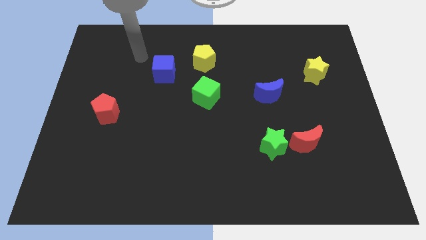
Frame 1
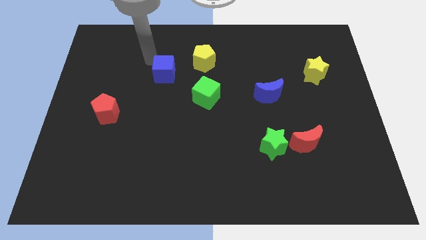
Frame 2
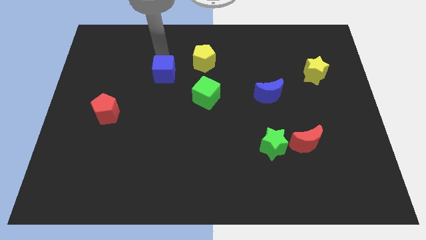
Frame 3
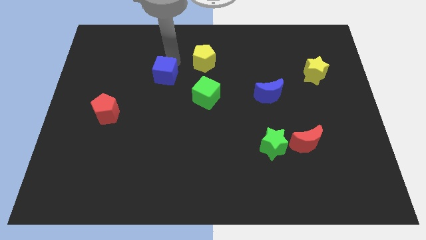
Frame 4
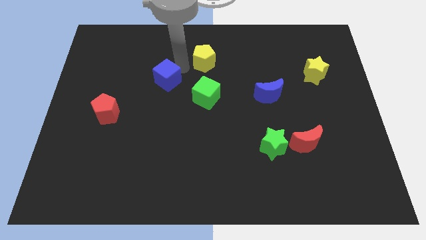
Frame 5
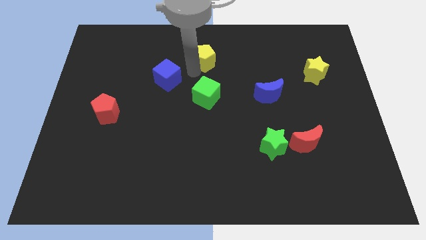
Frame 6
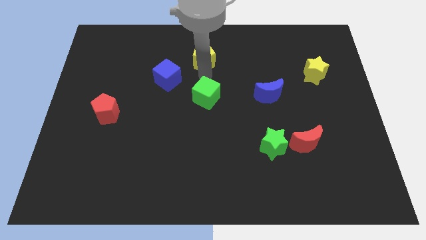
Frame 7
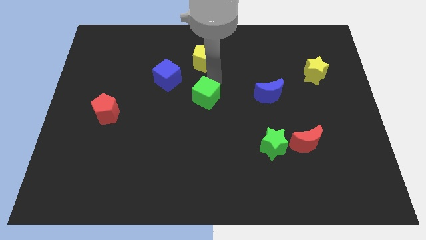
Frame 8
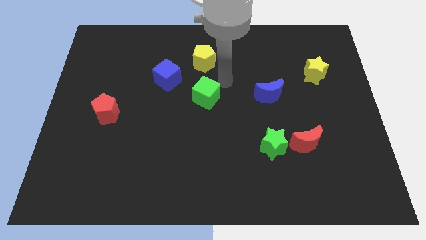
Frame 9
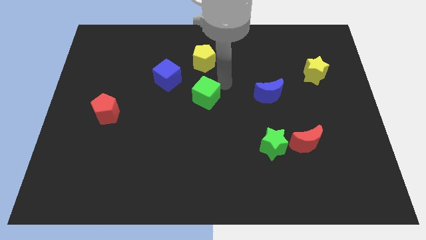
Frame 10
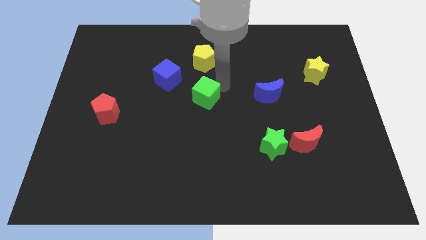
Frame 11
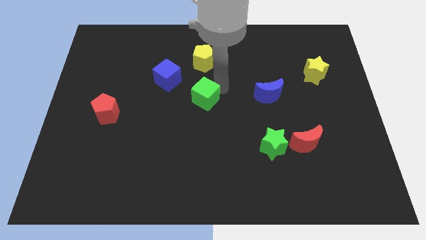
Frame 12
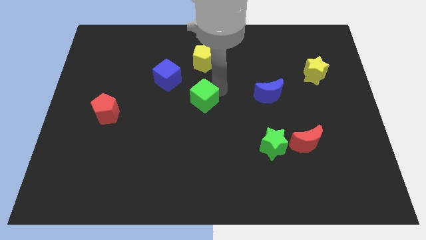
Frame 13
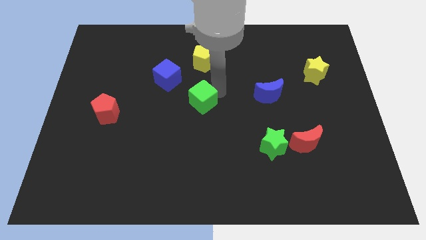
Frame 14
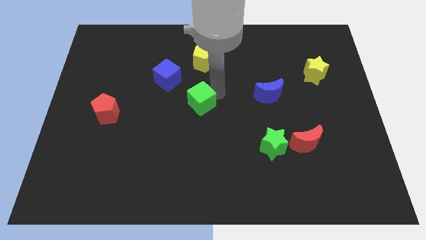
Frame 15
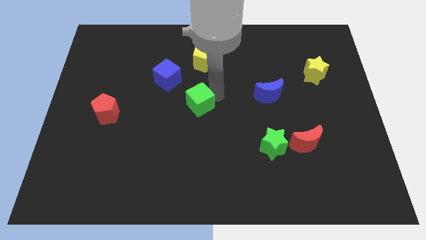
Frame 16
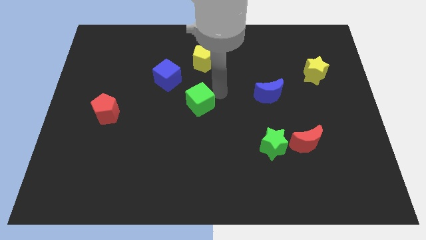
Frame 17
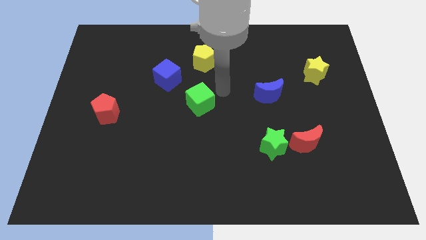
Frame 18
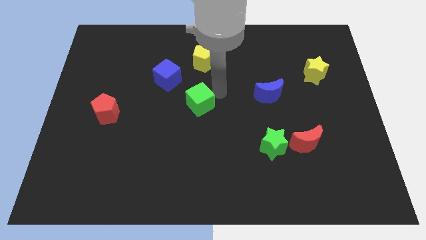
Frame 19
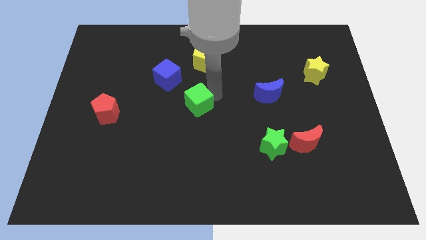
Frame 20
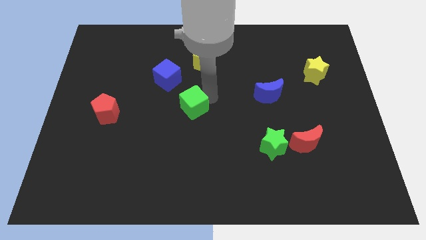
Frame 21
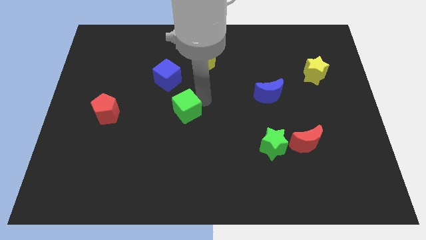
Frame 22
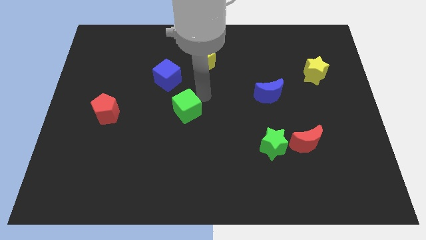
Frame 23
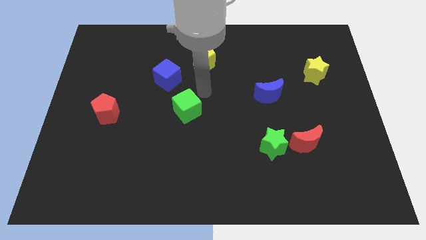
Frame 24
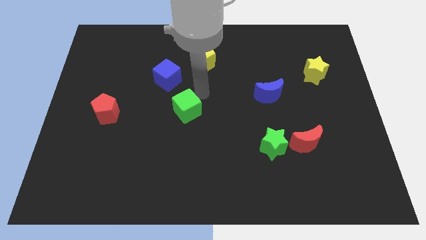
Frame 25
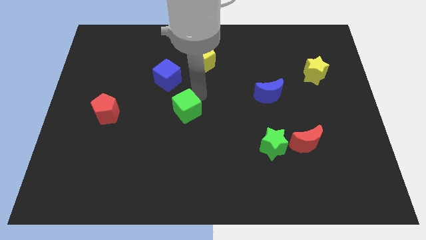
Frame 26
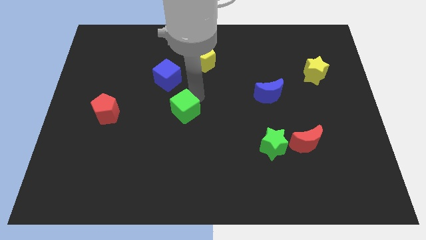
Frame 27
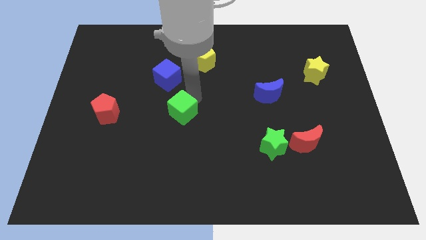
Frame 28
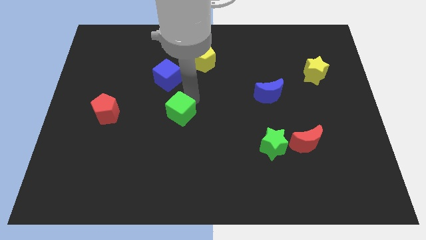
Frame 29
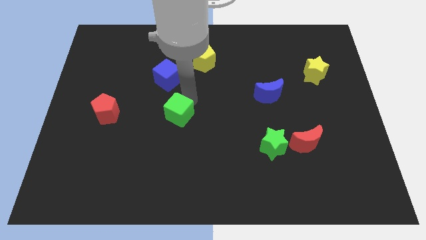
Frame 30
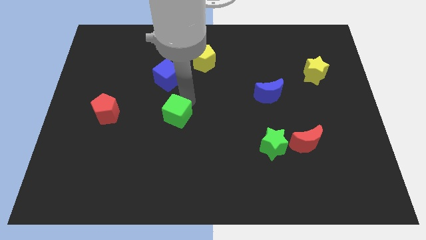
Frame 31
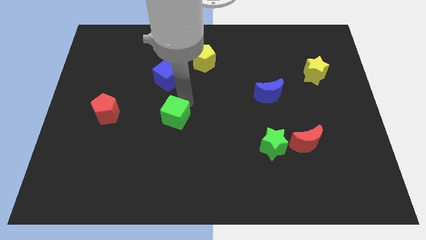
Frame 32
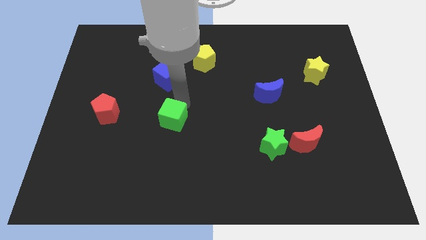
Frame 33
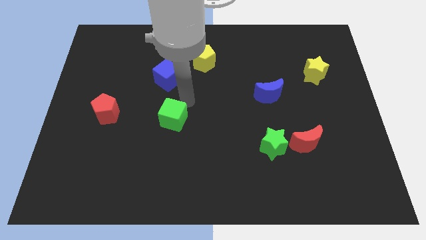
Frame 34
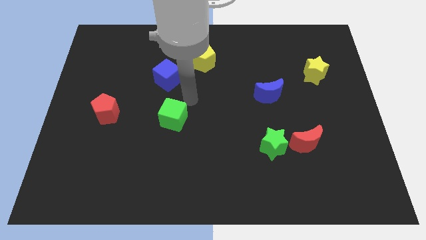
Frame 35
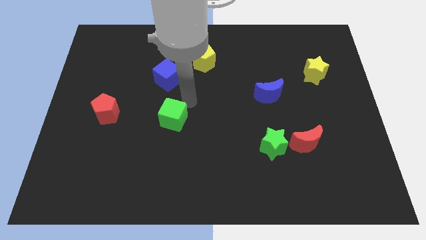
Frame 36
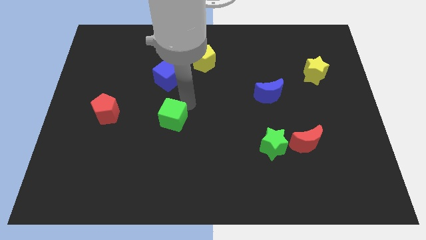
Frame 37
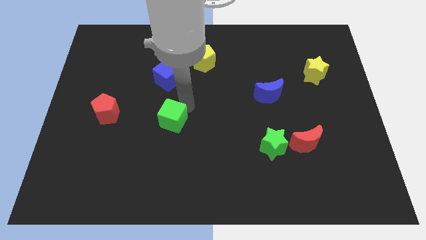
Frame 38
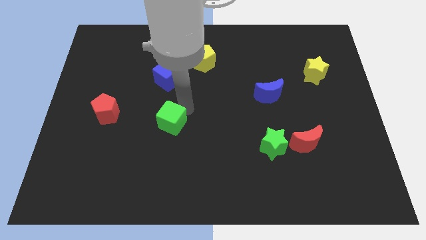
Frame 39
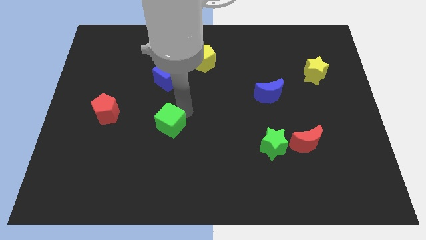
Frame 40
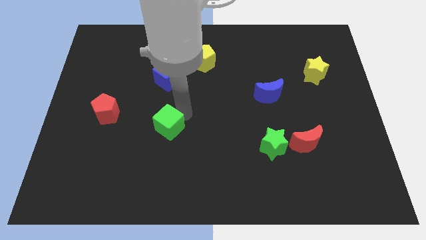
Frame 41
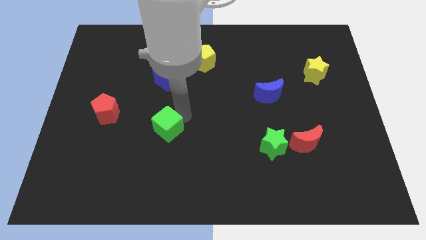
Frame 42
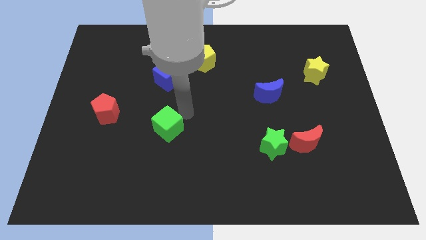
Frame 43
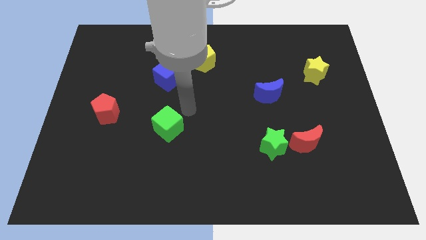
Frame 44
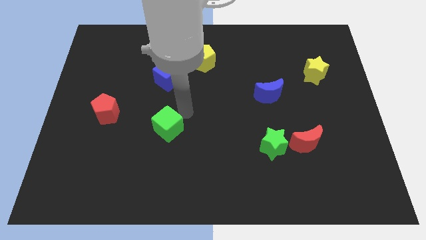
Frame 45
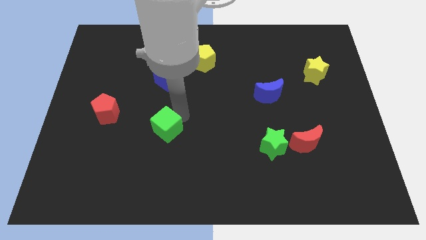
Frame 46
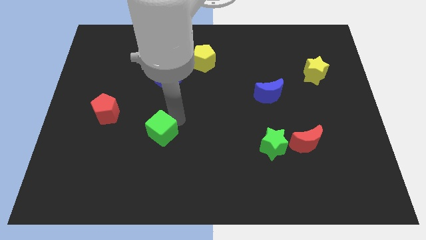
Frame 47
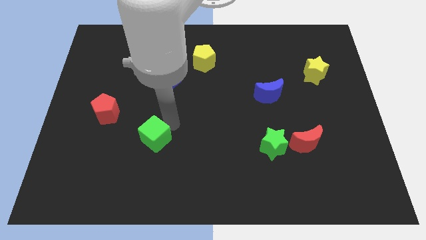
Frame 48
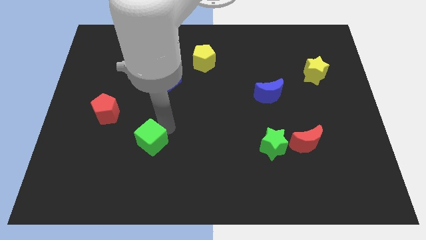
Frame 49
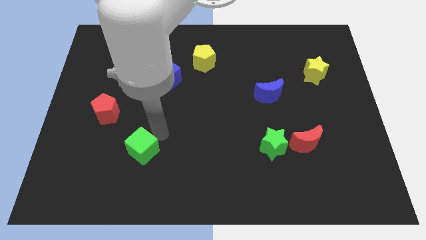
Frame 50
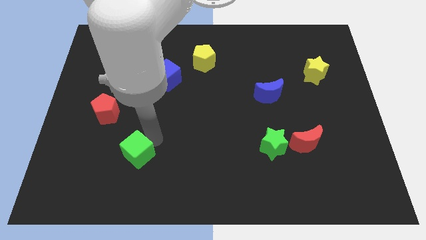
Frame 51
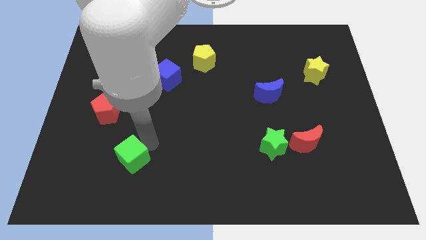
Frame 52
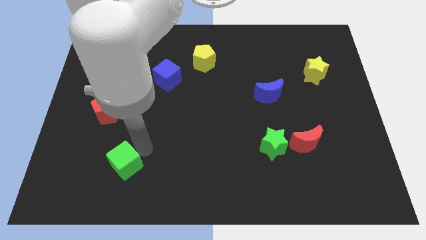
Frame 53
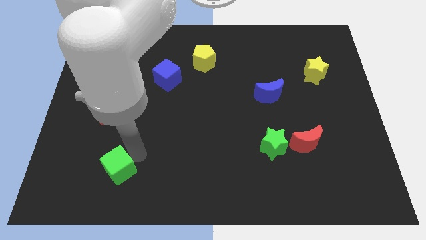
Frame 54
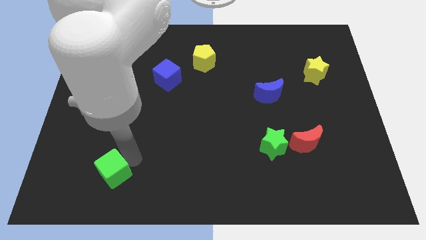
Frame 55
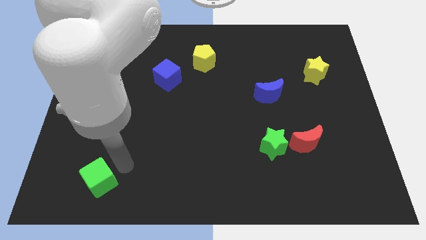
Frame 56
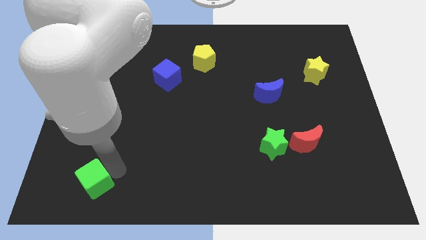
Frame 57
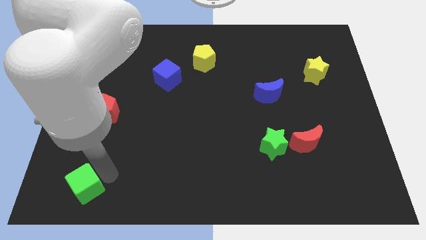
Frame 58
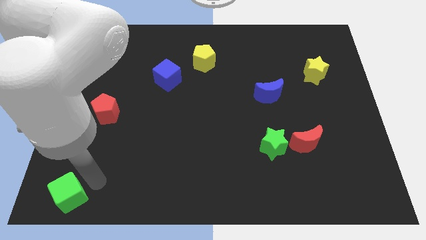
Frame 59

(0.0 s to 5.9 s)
put the green cube to the bottom left of the board

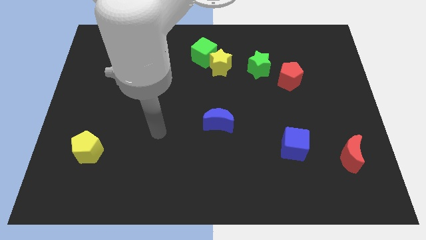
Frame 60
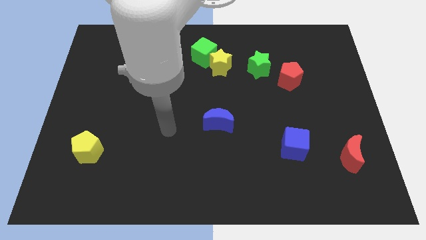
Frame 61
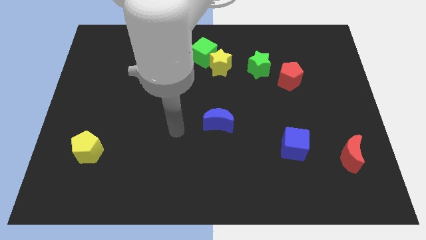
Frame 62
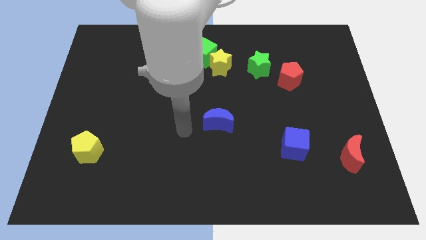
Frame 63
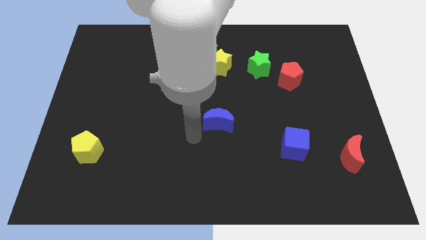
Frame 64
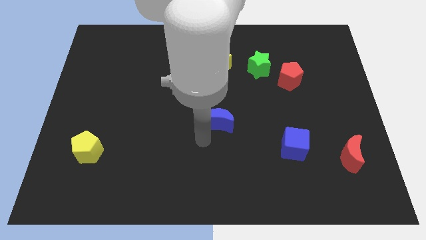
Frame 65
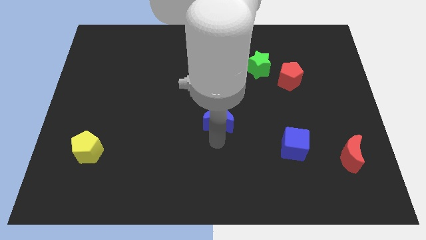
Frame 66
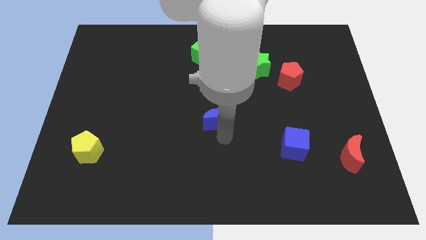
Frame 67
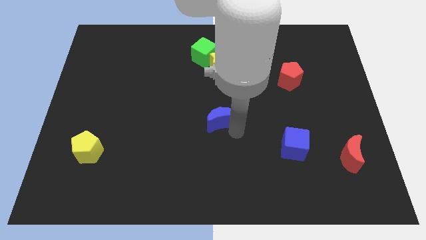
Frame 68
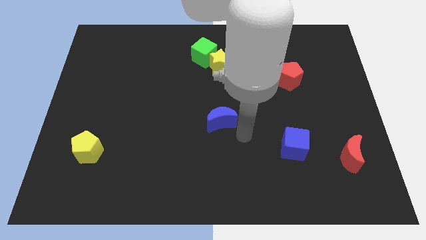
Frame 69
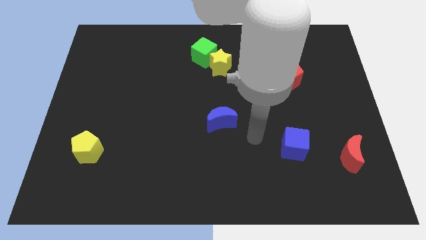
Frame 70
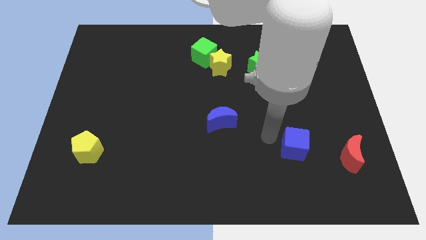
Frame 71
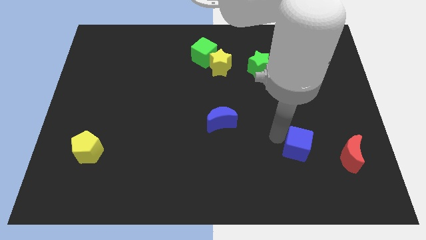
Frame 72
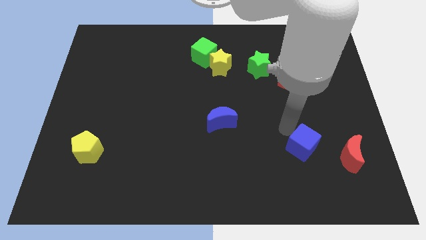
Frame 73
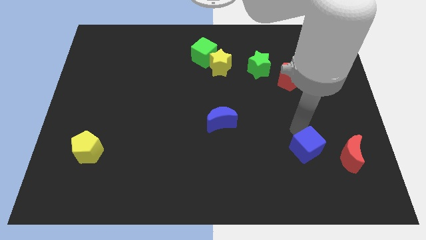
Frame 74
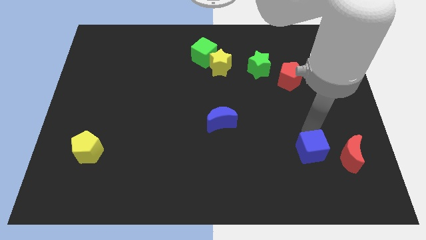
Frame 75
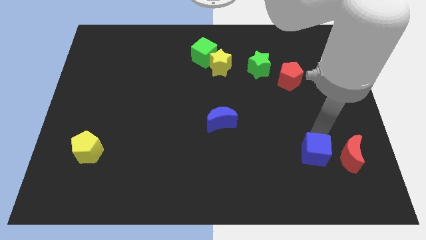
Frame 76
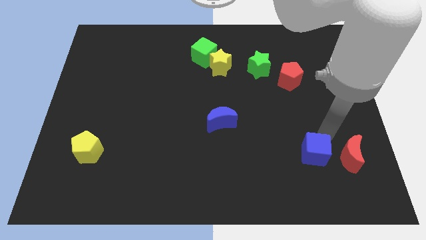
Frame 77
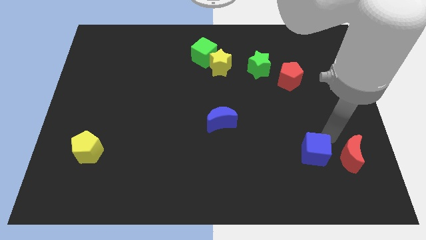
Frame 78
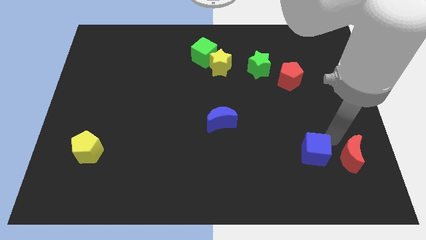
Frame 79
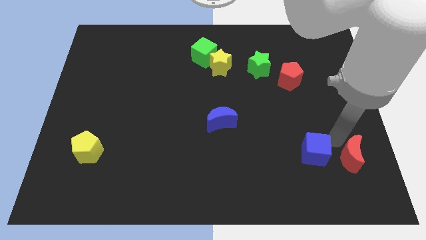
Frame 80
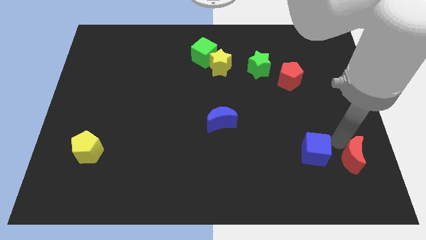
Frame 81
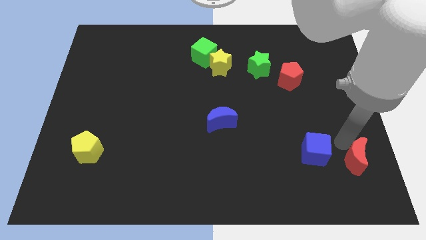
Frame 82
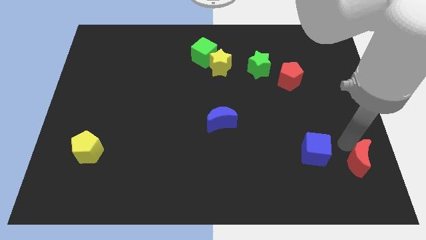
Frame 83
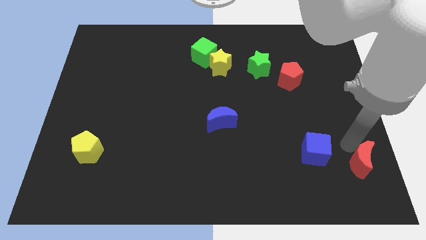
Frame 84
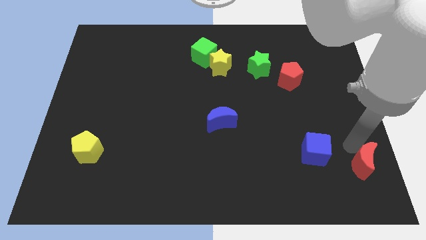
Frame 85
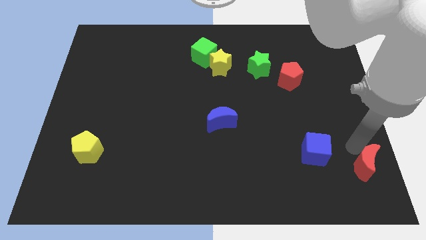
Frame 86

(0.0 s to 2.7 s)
put the red moon to the bottom right corner
